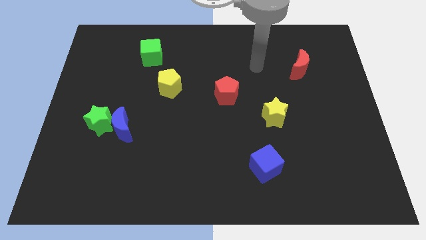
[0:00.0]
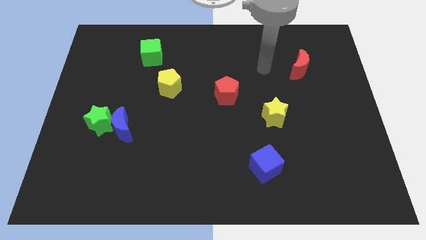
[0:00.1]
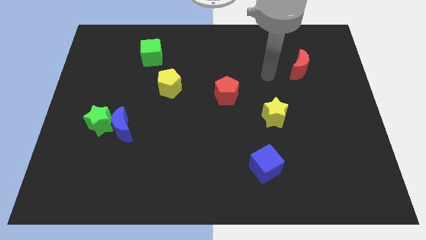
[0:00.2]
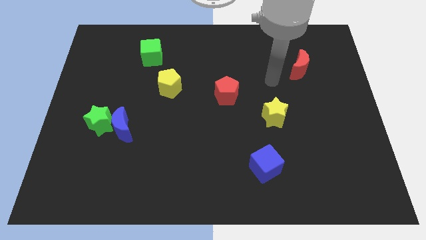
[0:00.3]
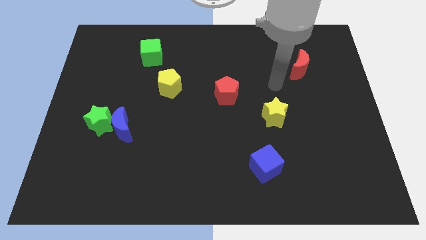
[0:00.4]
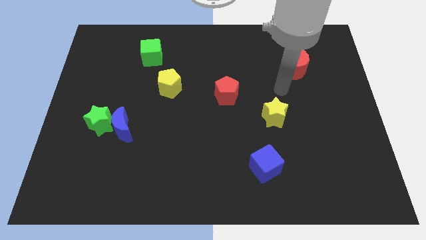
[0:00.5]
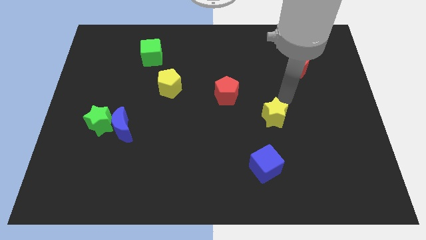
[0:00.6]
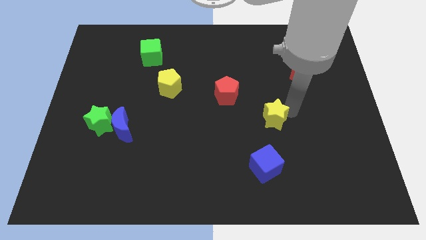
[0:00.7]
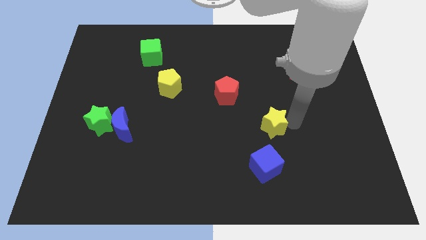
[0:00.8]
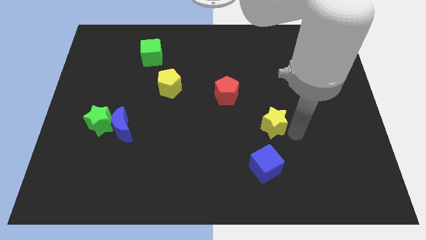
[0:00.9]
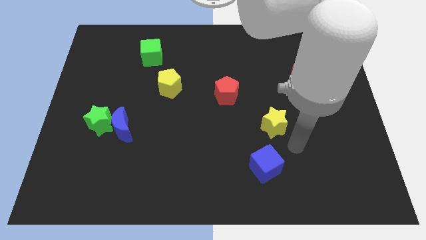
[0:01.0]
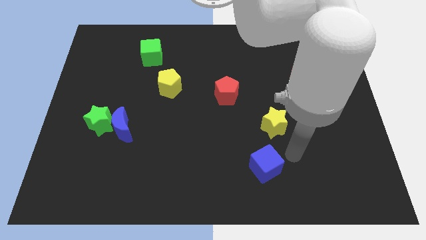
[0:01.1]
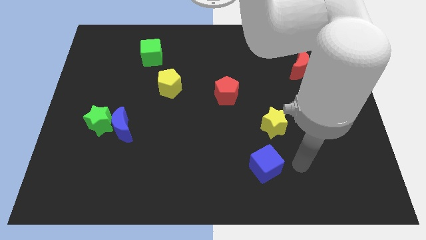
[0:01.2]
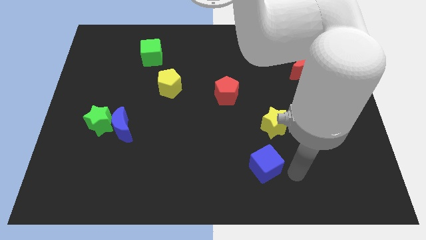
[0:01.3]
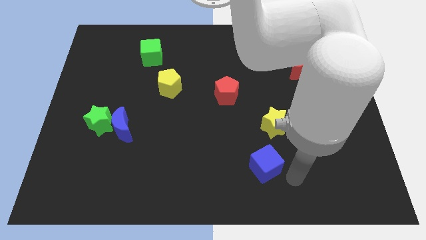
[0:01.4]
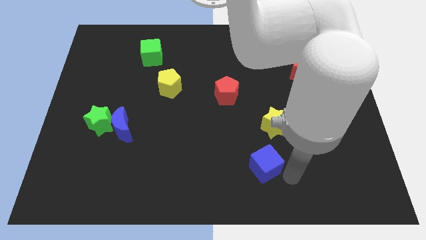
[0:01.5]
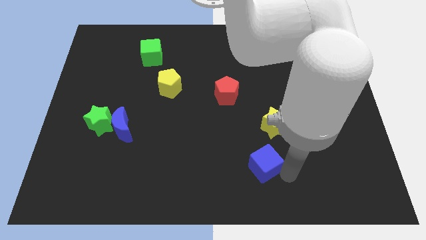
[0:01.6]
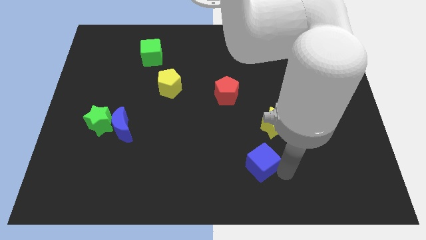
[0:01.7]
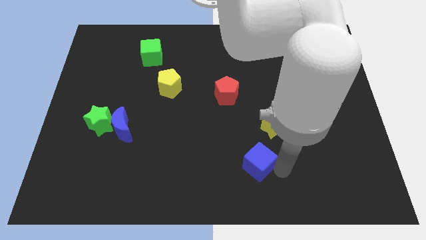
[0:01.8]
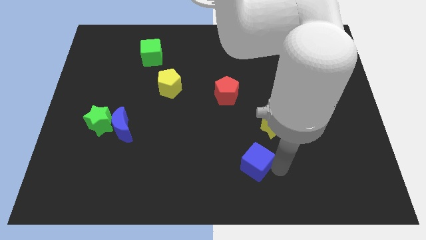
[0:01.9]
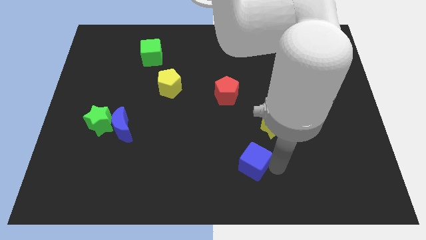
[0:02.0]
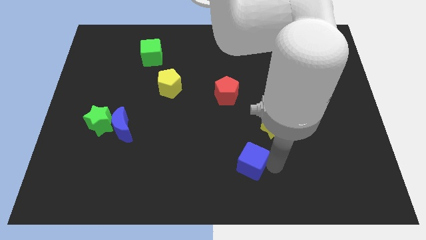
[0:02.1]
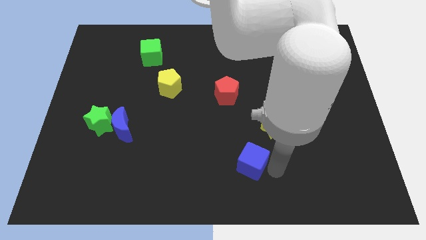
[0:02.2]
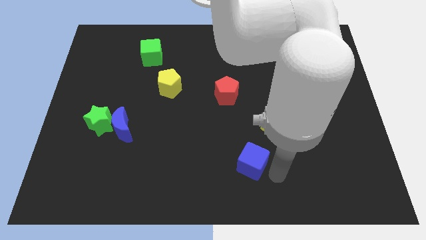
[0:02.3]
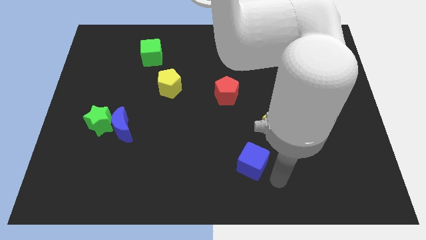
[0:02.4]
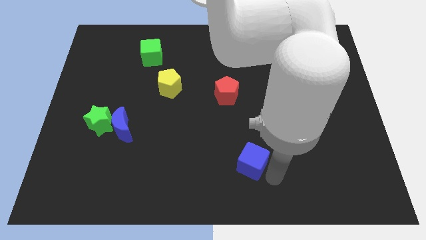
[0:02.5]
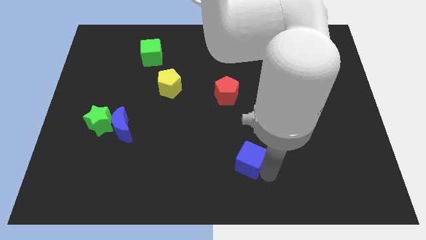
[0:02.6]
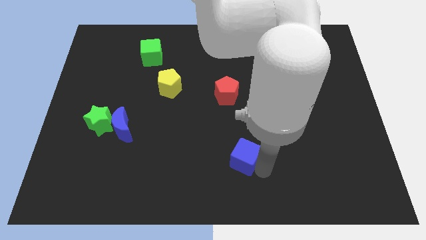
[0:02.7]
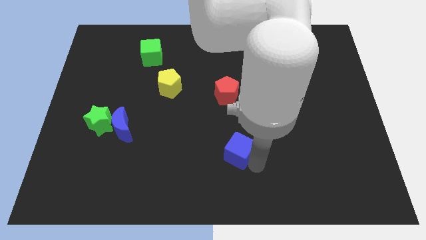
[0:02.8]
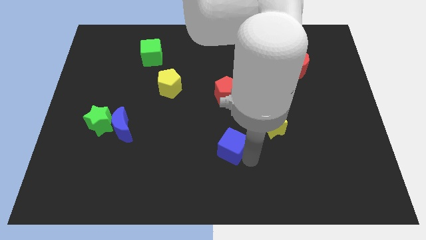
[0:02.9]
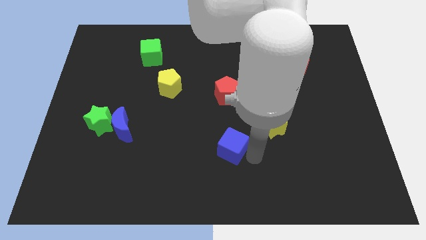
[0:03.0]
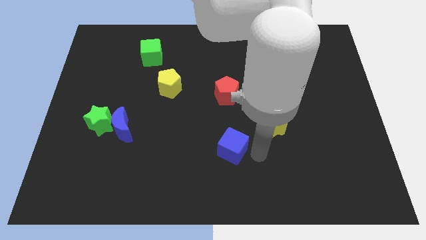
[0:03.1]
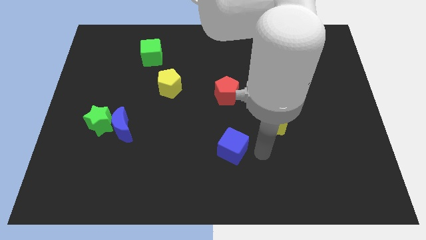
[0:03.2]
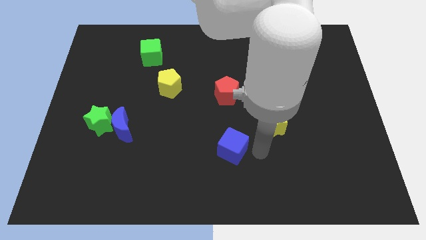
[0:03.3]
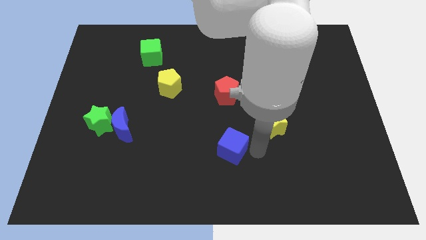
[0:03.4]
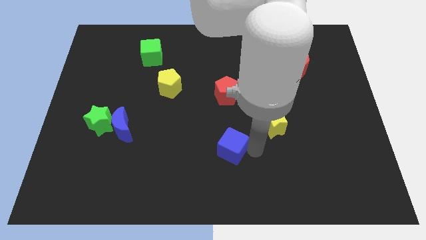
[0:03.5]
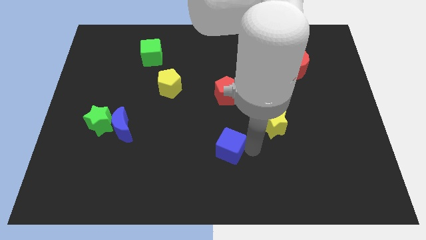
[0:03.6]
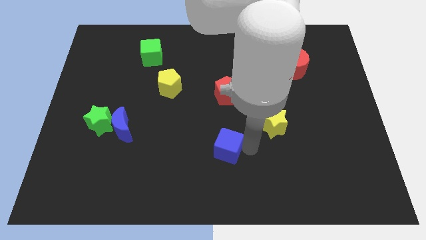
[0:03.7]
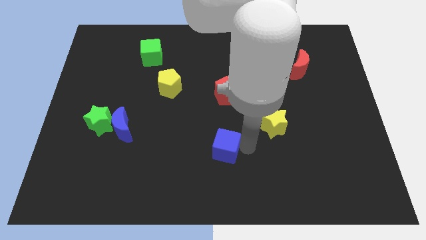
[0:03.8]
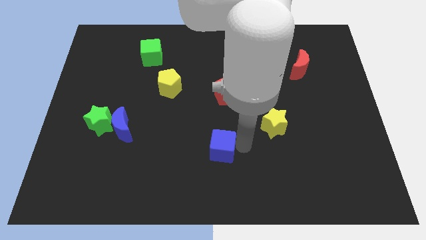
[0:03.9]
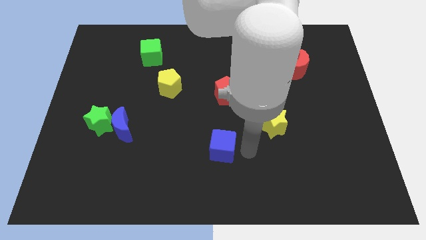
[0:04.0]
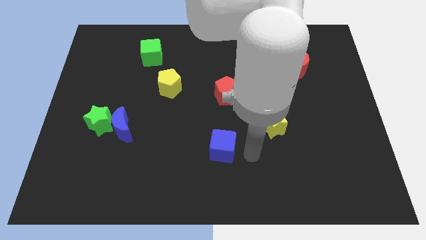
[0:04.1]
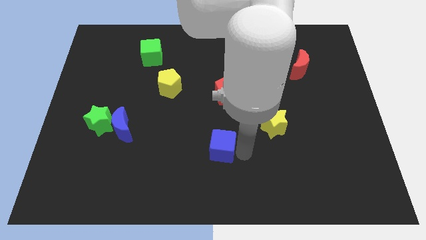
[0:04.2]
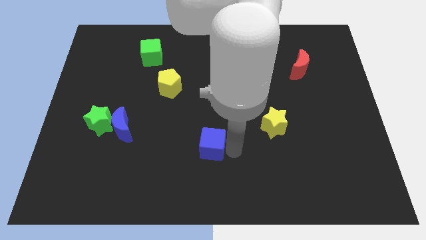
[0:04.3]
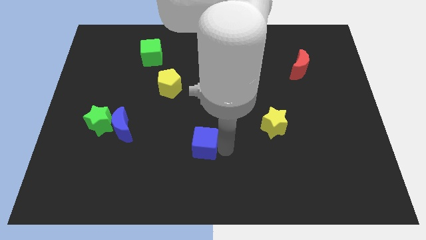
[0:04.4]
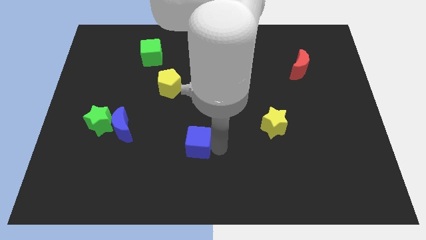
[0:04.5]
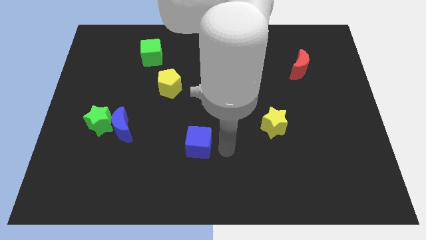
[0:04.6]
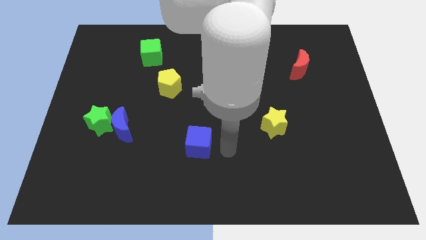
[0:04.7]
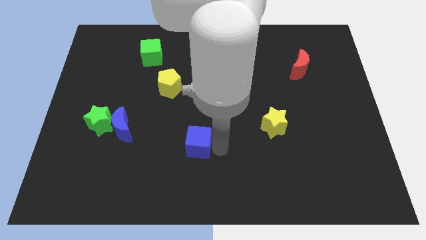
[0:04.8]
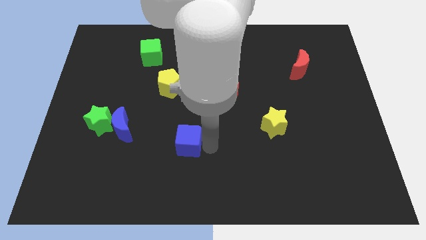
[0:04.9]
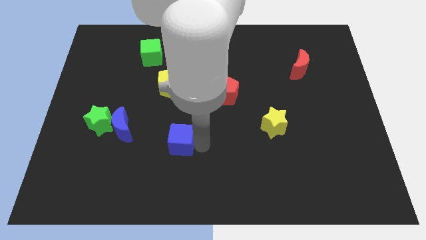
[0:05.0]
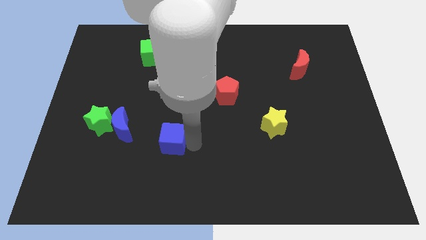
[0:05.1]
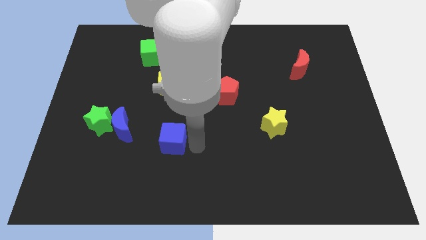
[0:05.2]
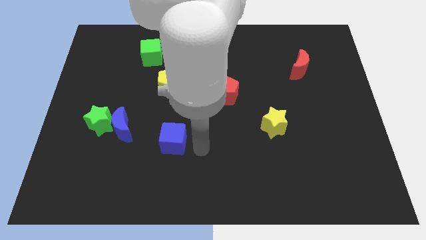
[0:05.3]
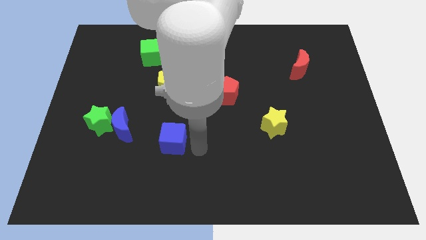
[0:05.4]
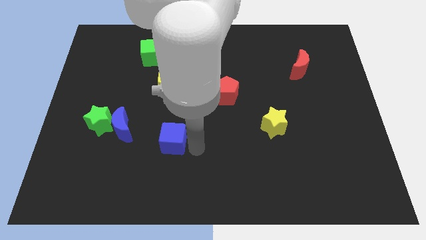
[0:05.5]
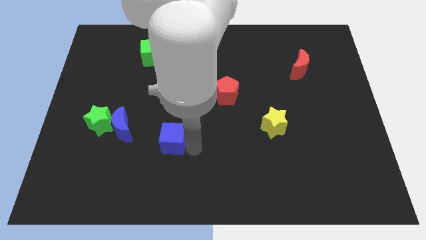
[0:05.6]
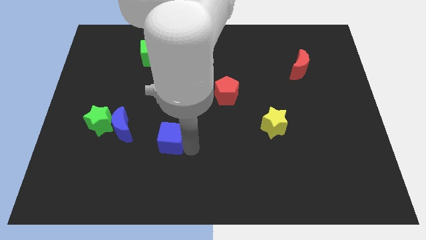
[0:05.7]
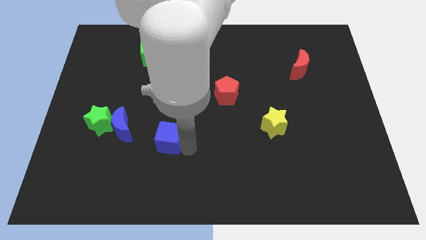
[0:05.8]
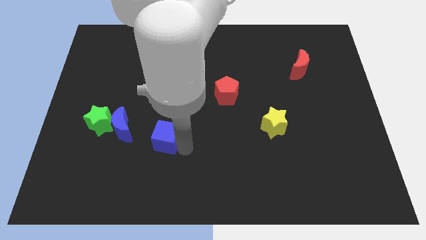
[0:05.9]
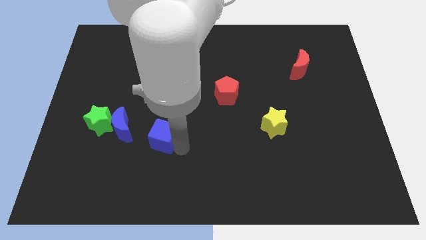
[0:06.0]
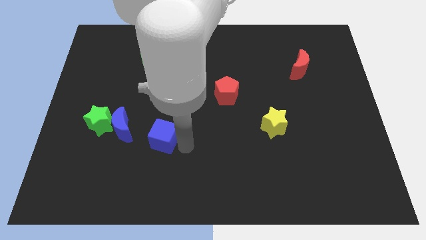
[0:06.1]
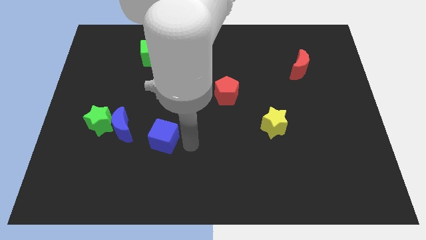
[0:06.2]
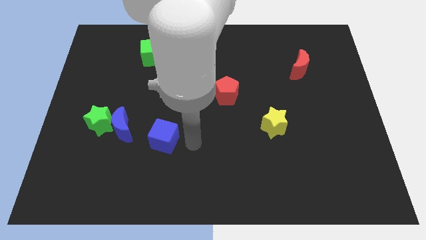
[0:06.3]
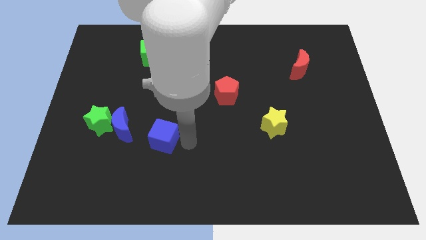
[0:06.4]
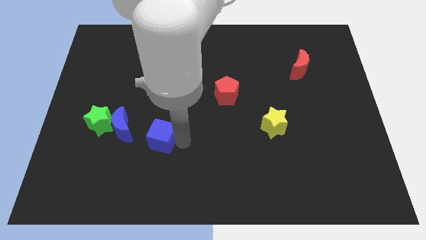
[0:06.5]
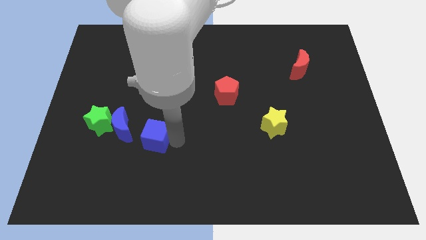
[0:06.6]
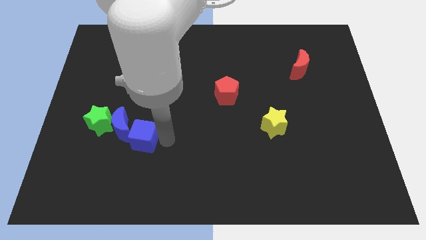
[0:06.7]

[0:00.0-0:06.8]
move the blue cube towards the blue moon

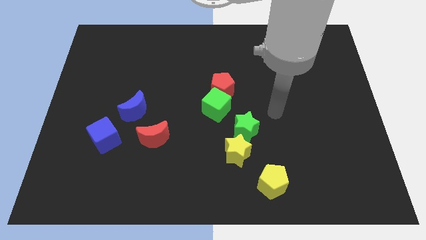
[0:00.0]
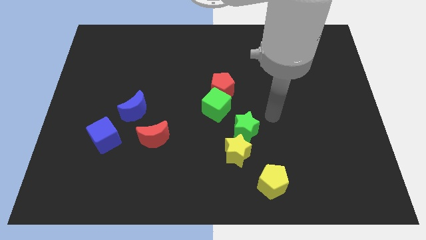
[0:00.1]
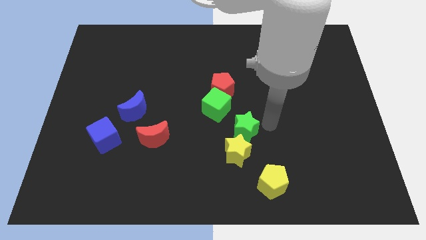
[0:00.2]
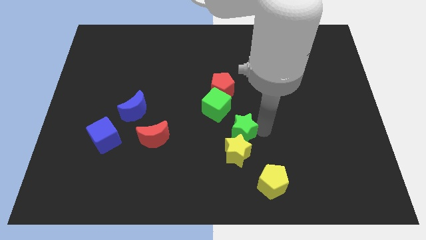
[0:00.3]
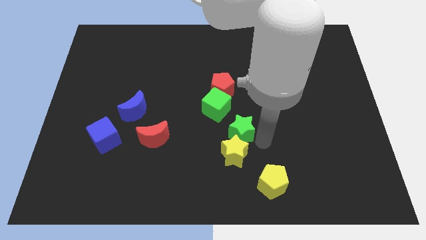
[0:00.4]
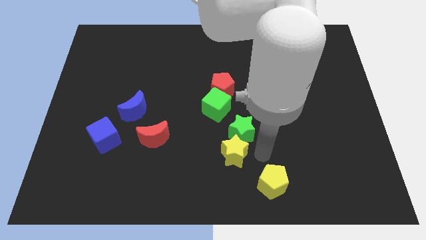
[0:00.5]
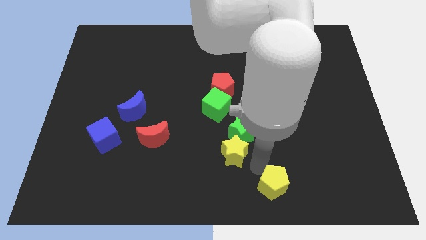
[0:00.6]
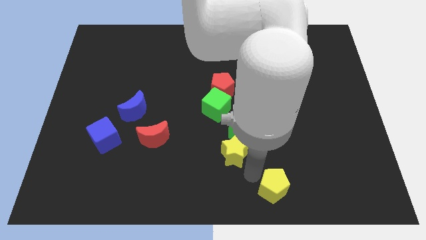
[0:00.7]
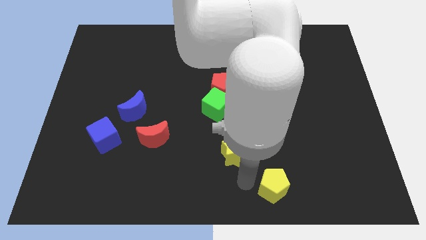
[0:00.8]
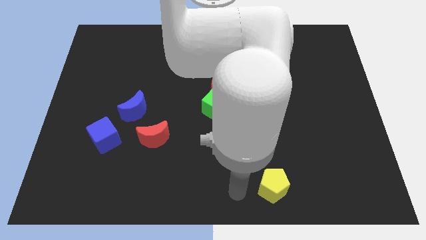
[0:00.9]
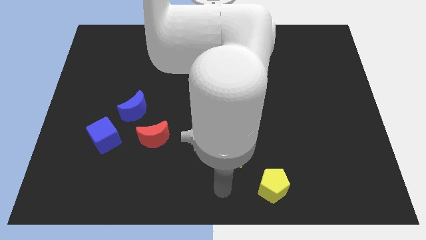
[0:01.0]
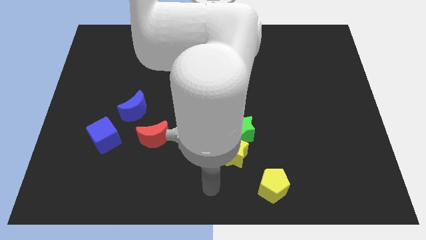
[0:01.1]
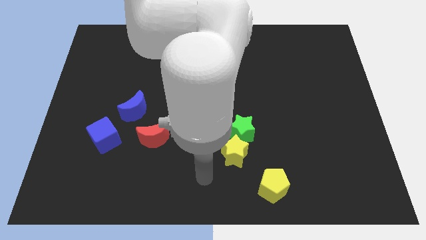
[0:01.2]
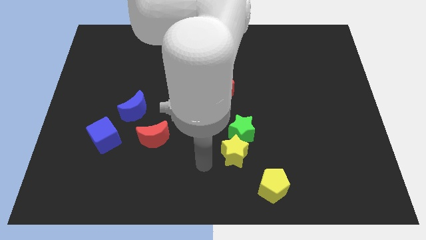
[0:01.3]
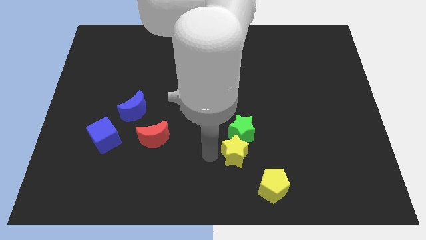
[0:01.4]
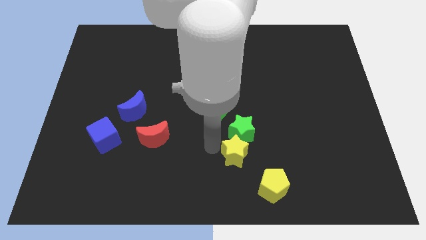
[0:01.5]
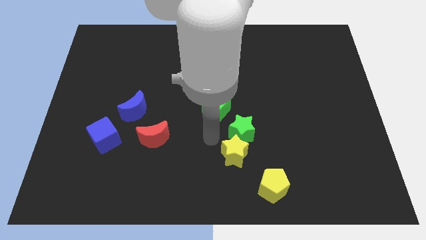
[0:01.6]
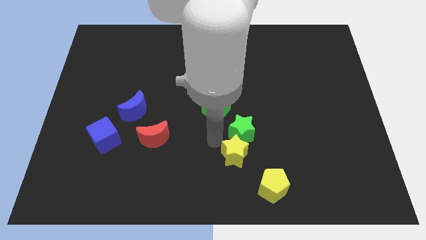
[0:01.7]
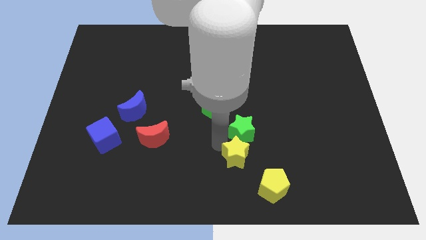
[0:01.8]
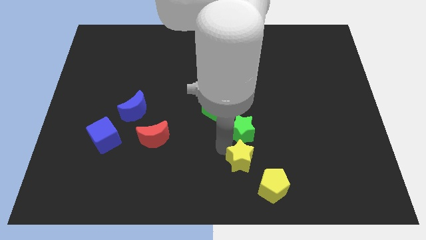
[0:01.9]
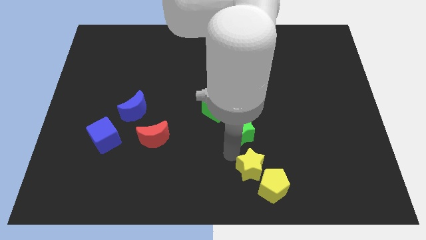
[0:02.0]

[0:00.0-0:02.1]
slide the yellow star close to the yellow pentagon
